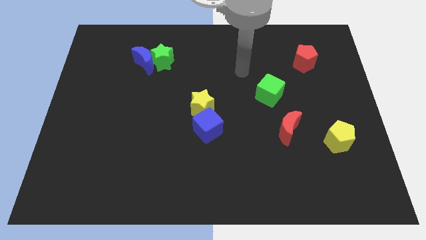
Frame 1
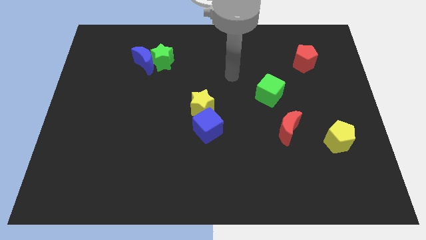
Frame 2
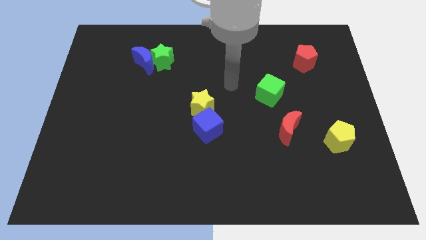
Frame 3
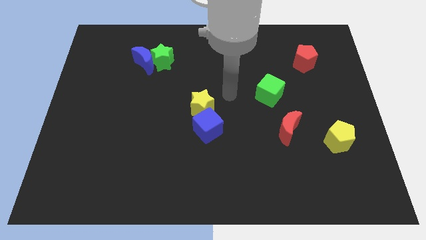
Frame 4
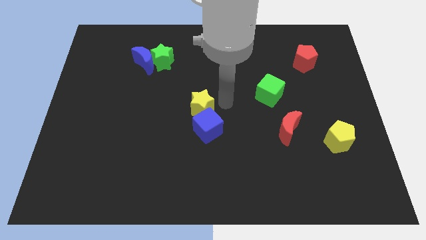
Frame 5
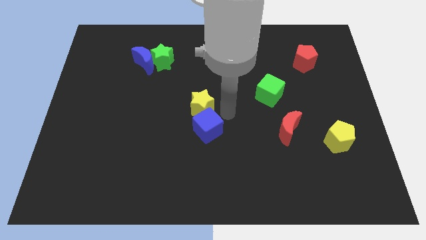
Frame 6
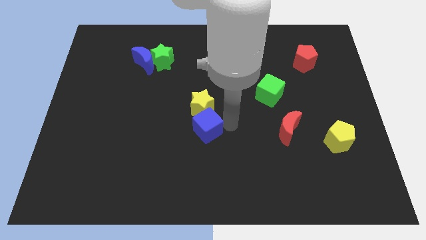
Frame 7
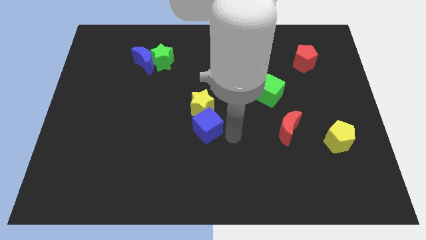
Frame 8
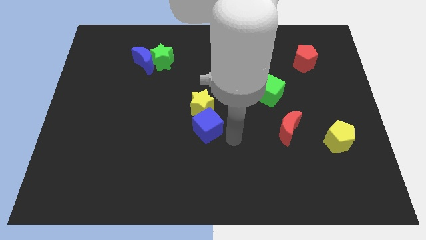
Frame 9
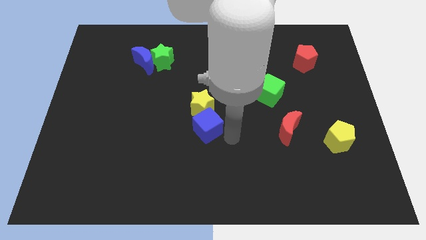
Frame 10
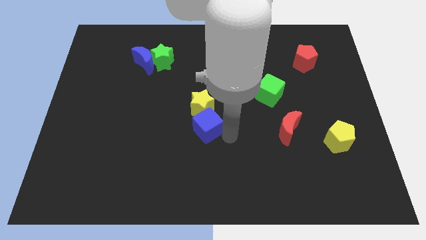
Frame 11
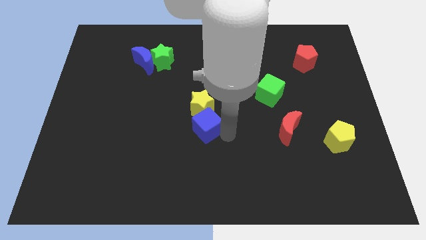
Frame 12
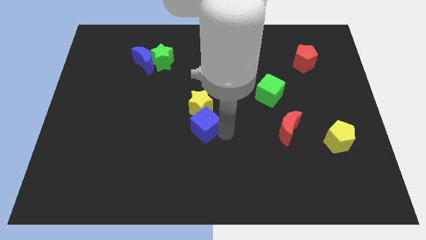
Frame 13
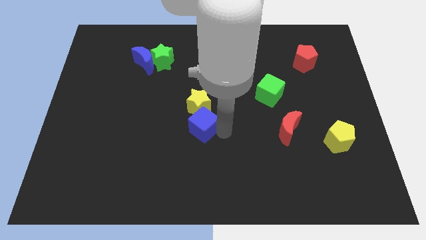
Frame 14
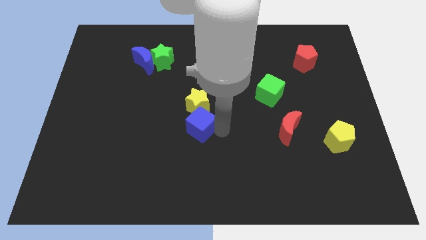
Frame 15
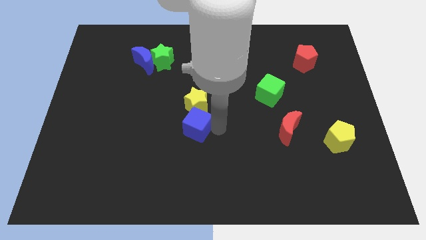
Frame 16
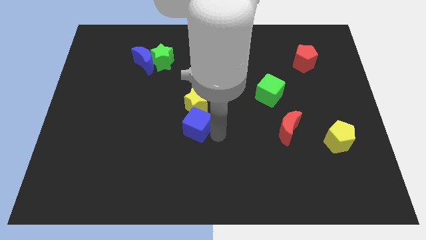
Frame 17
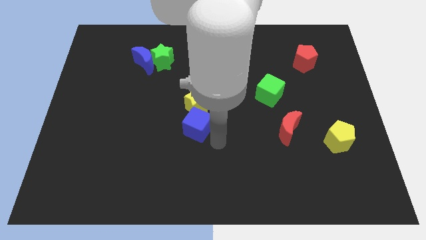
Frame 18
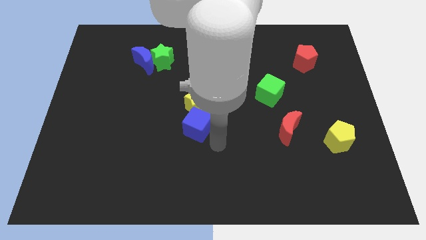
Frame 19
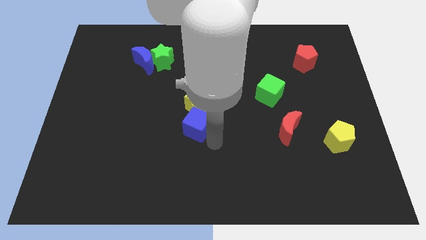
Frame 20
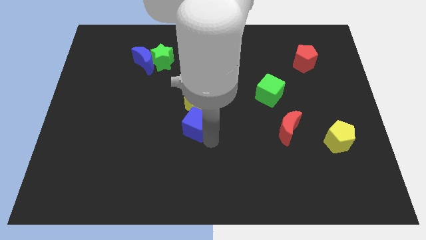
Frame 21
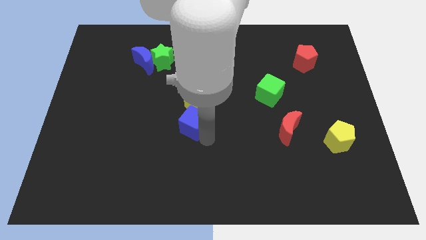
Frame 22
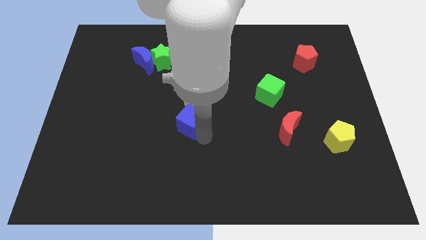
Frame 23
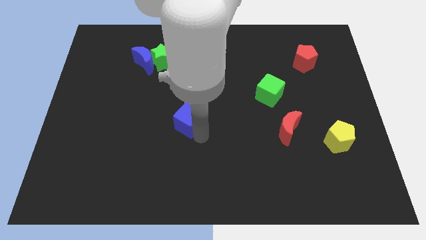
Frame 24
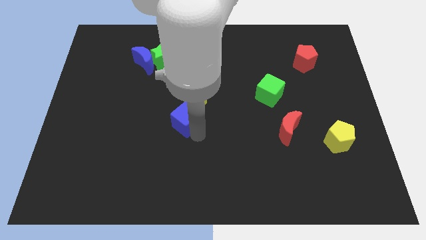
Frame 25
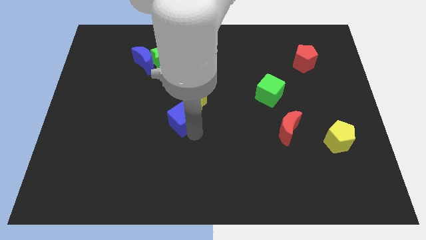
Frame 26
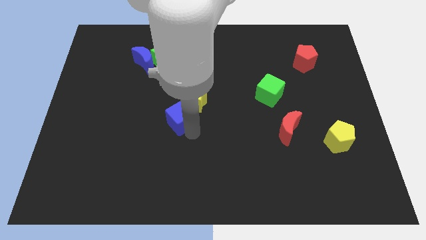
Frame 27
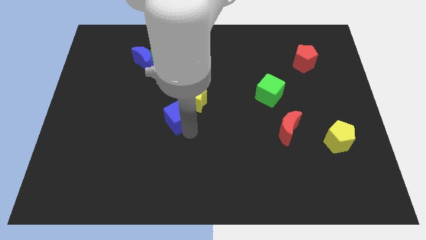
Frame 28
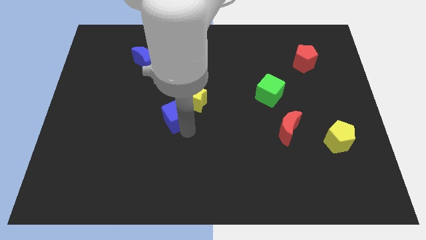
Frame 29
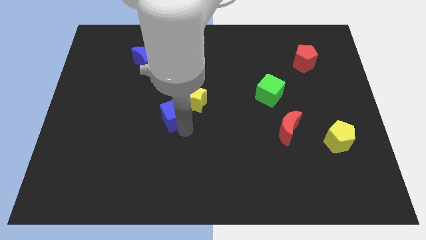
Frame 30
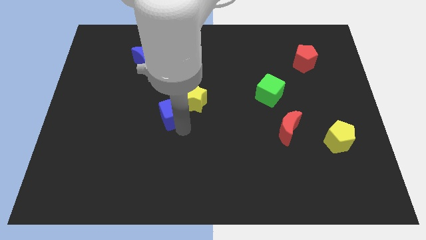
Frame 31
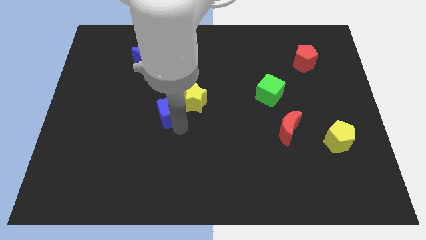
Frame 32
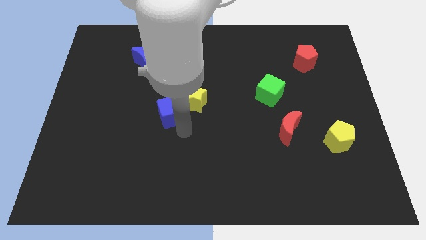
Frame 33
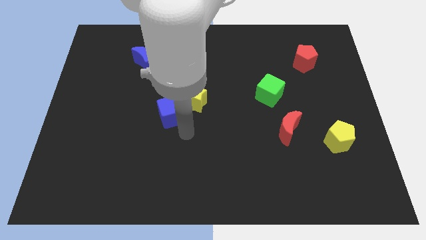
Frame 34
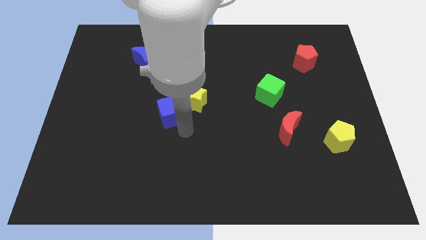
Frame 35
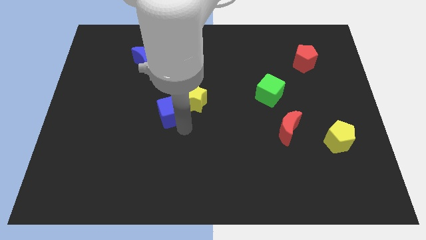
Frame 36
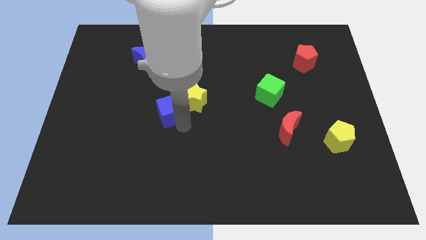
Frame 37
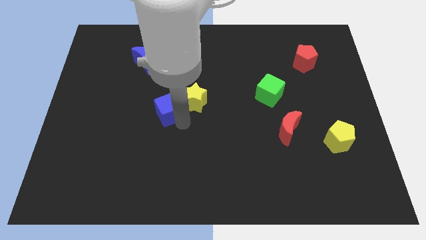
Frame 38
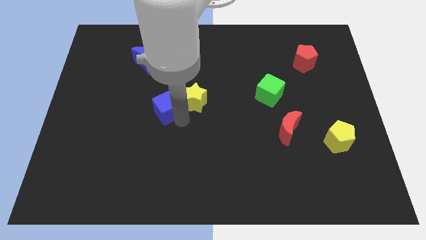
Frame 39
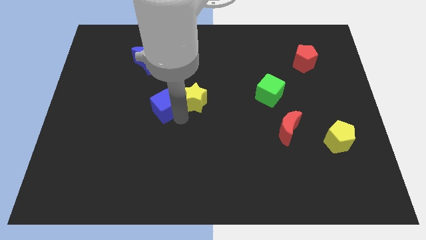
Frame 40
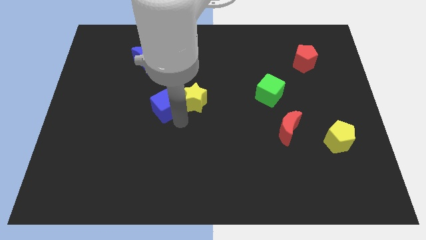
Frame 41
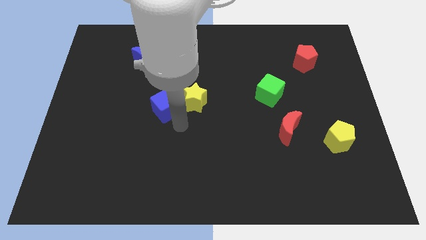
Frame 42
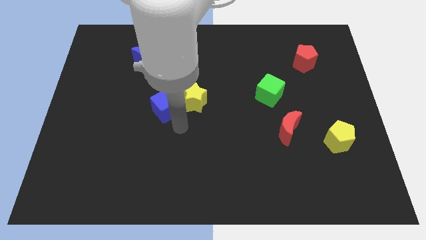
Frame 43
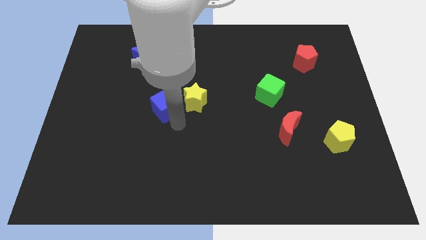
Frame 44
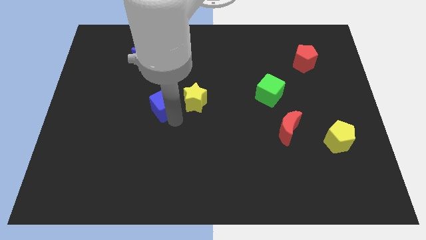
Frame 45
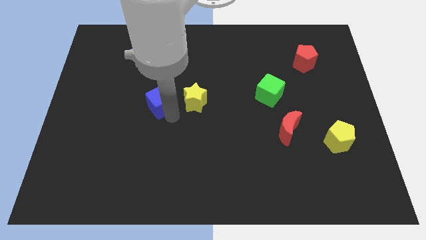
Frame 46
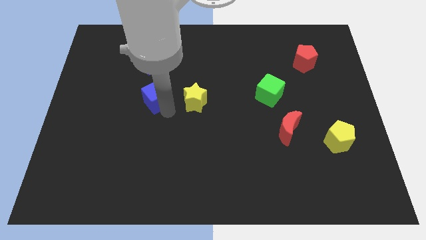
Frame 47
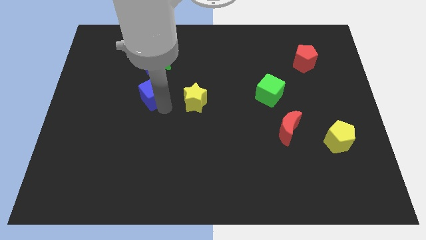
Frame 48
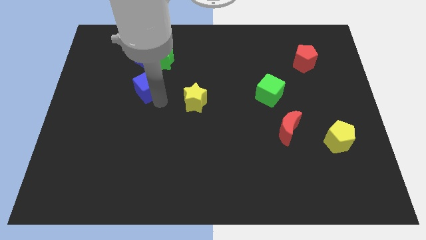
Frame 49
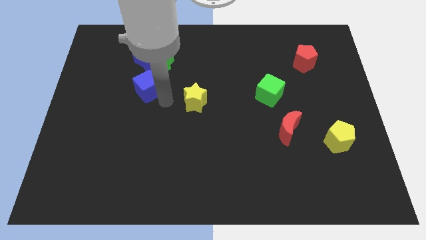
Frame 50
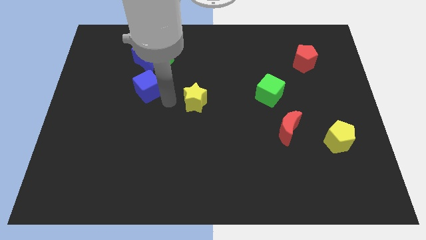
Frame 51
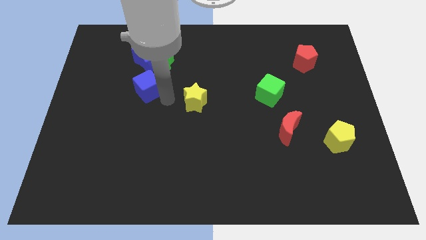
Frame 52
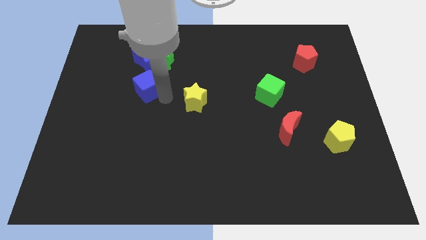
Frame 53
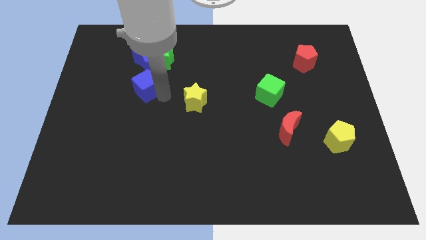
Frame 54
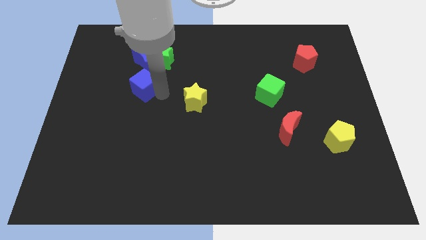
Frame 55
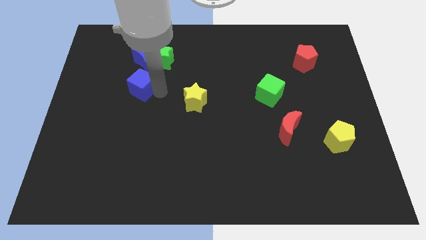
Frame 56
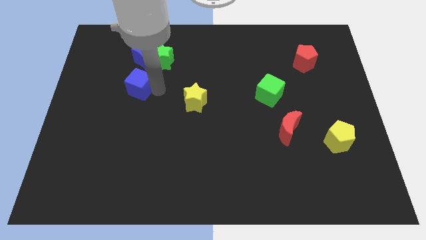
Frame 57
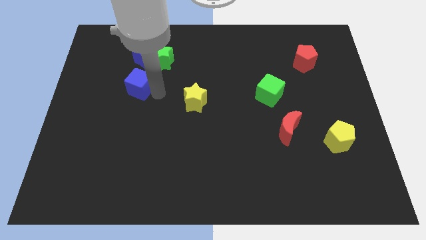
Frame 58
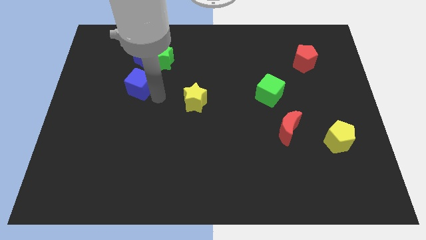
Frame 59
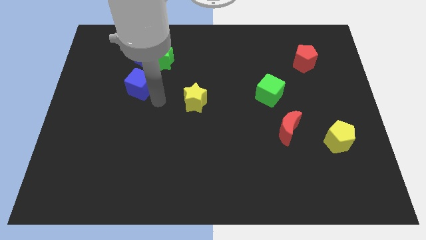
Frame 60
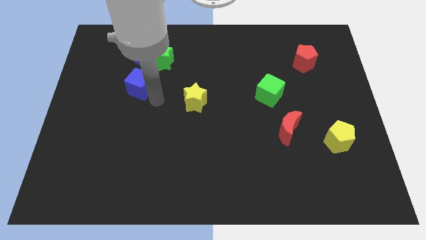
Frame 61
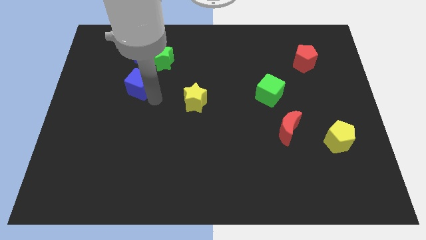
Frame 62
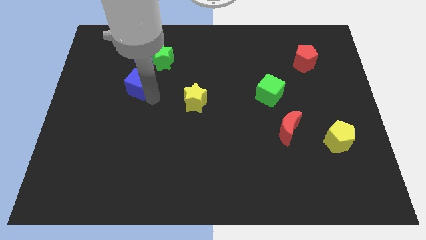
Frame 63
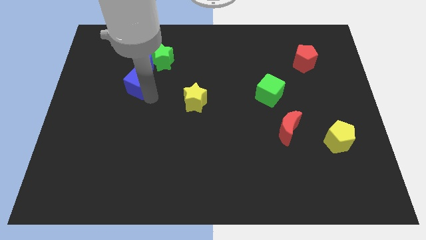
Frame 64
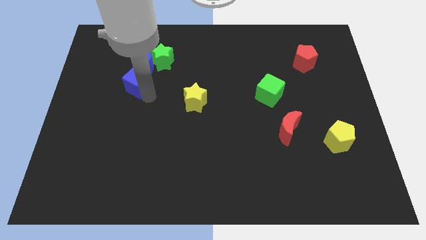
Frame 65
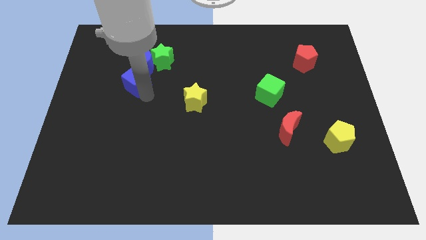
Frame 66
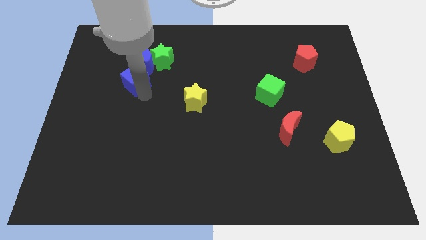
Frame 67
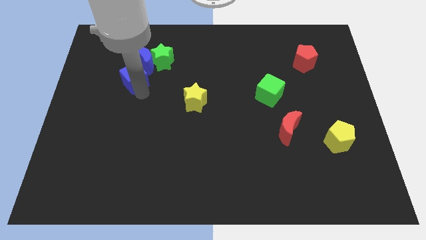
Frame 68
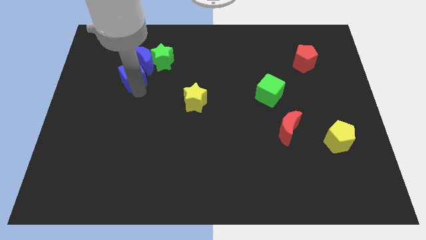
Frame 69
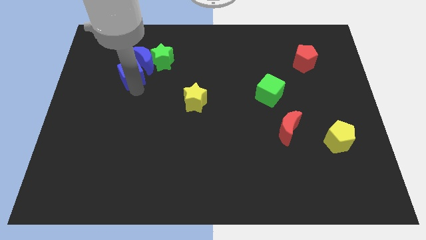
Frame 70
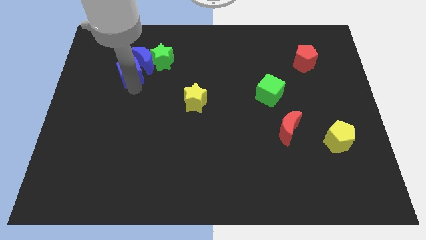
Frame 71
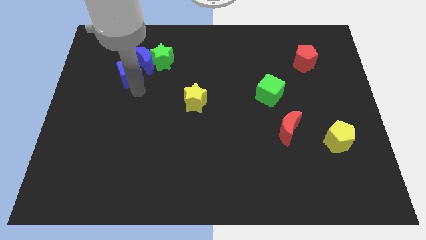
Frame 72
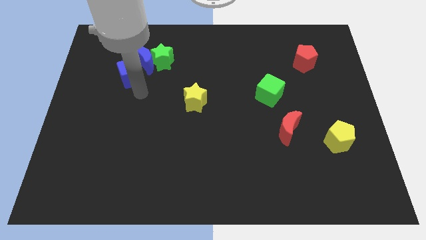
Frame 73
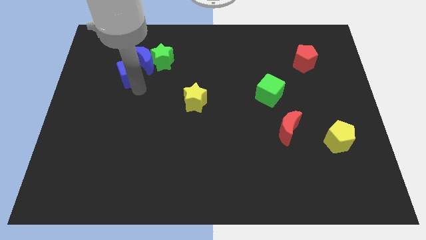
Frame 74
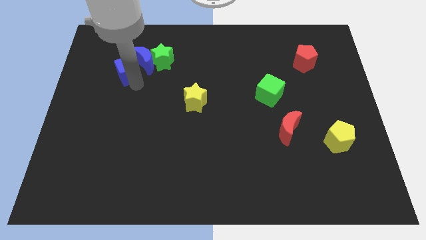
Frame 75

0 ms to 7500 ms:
push the blue cube to the left side of the green star
